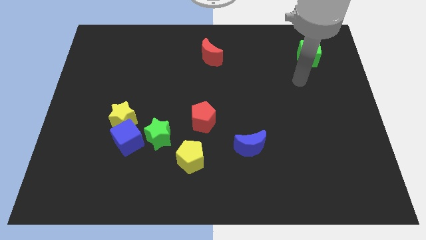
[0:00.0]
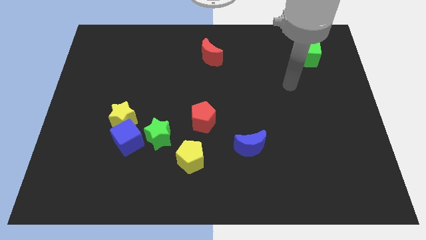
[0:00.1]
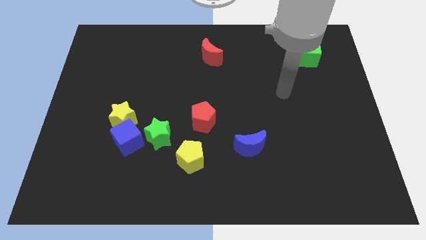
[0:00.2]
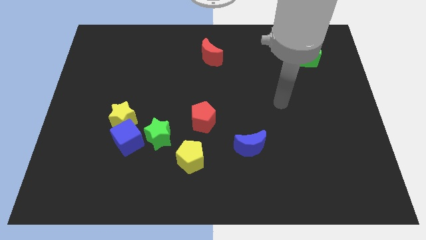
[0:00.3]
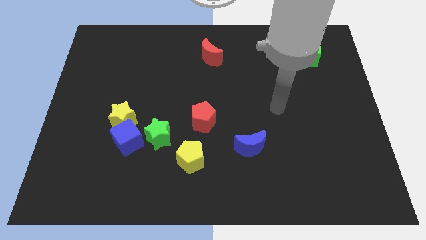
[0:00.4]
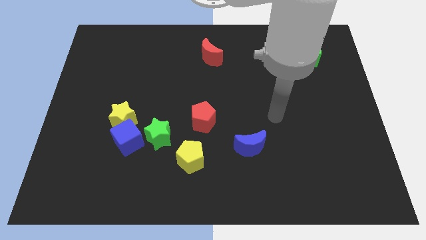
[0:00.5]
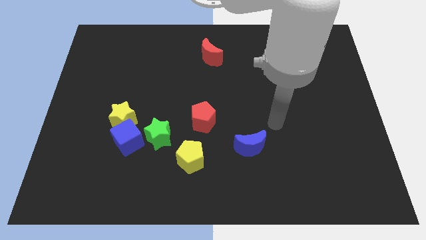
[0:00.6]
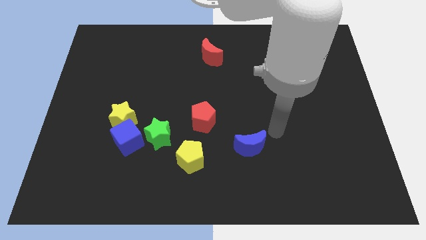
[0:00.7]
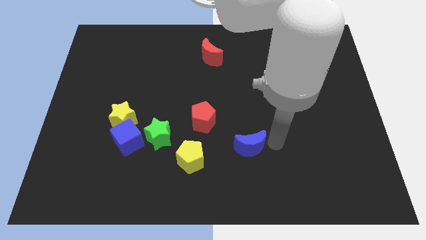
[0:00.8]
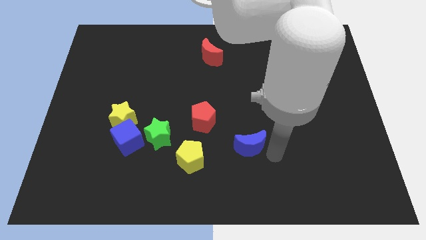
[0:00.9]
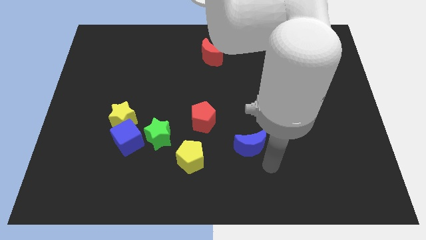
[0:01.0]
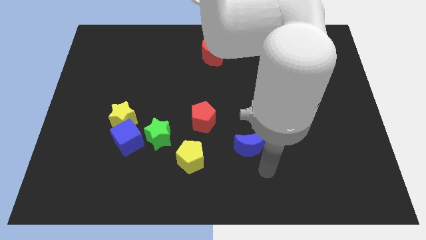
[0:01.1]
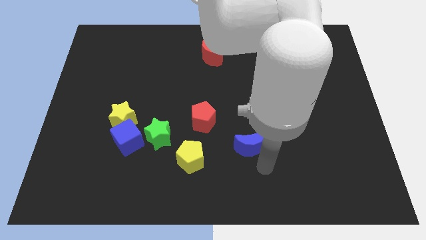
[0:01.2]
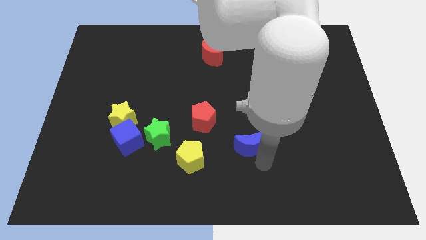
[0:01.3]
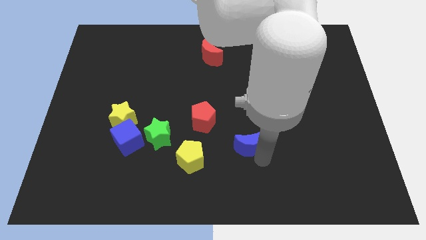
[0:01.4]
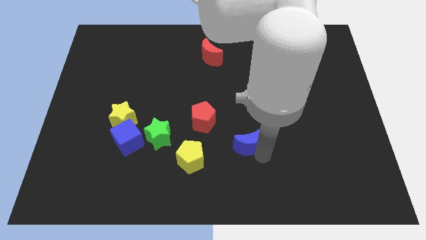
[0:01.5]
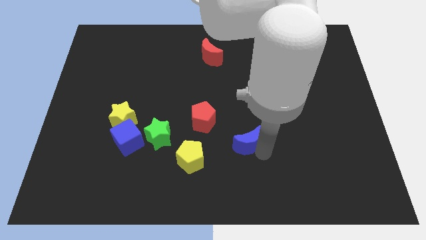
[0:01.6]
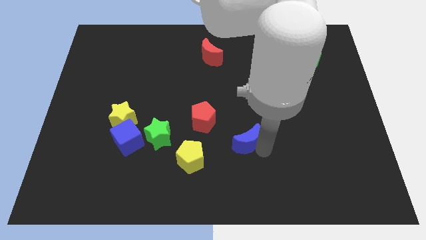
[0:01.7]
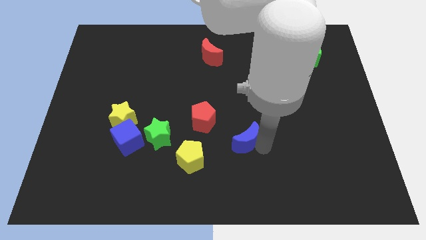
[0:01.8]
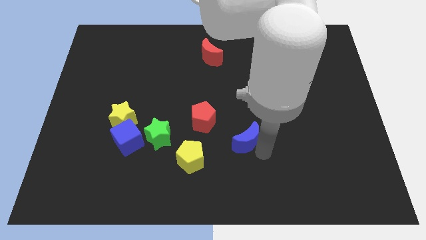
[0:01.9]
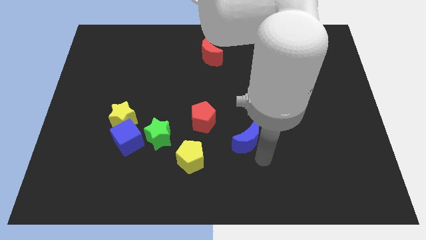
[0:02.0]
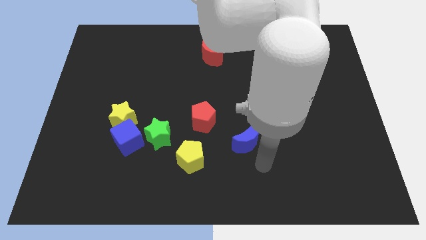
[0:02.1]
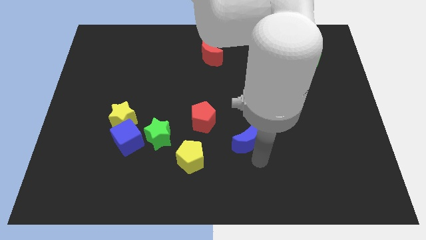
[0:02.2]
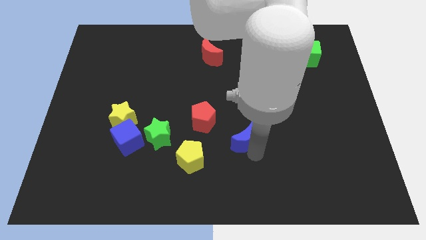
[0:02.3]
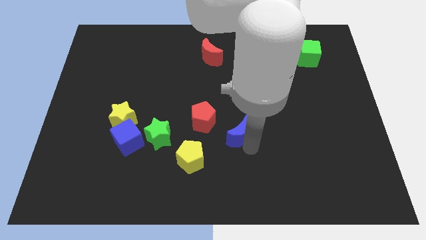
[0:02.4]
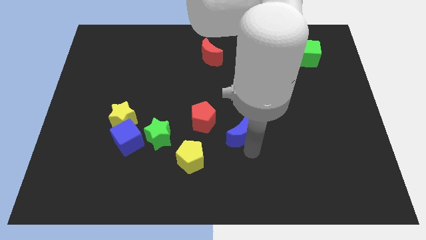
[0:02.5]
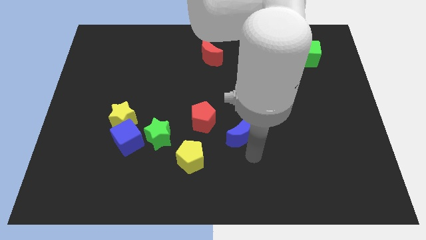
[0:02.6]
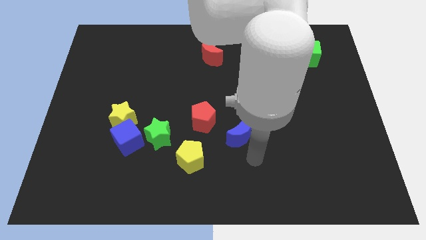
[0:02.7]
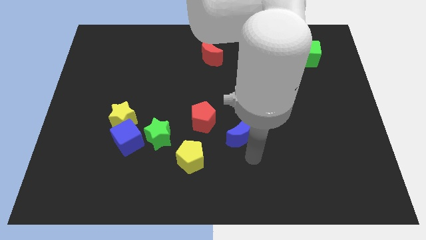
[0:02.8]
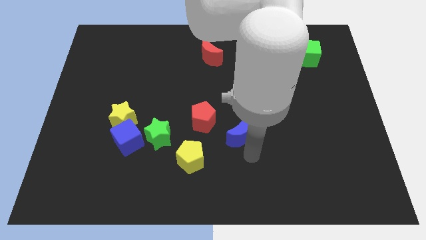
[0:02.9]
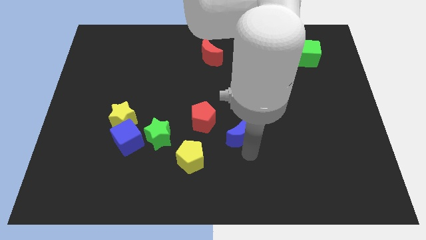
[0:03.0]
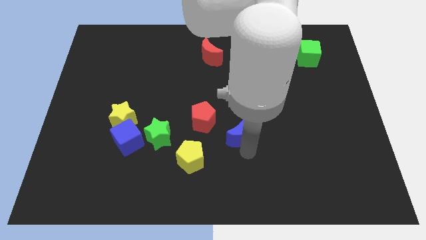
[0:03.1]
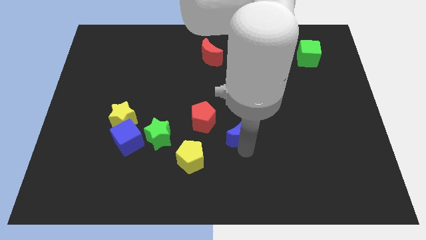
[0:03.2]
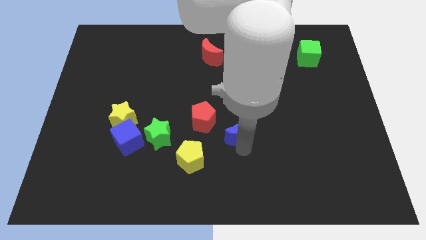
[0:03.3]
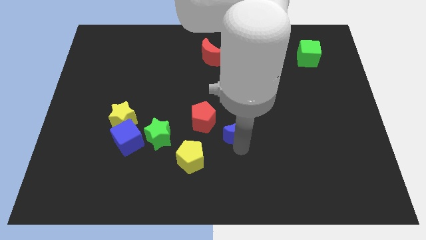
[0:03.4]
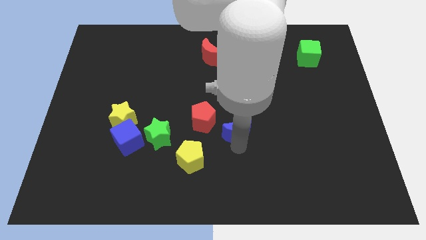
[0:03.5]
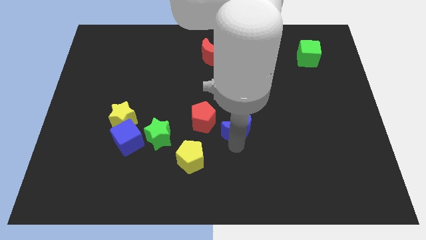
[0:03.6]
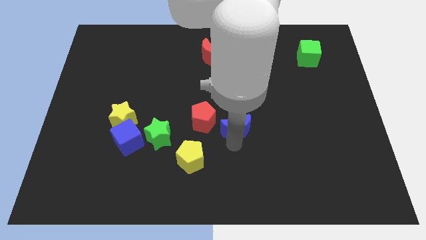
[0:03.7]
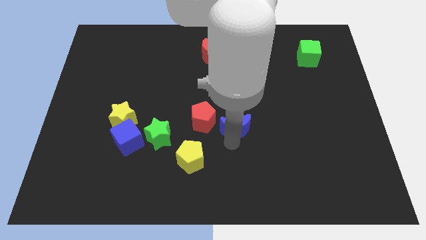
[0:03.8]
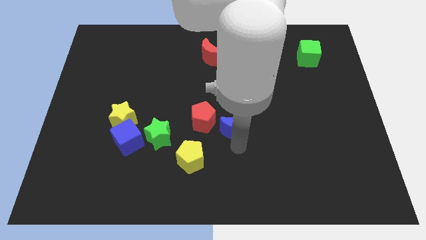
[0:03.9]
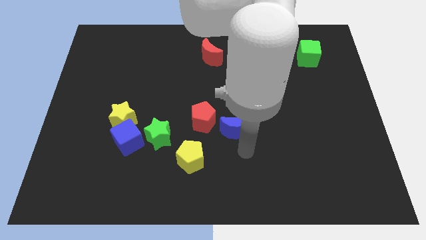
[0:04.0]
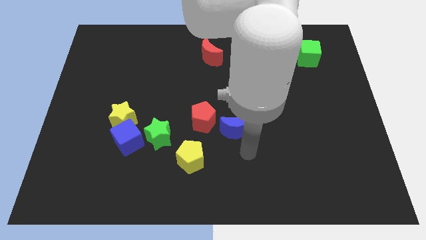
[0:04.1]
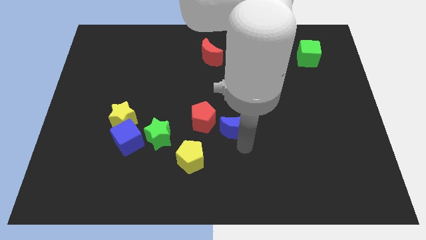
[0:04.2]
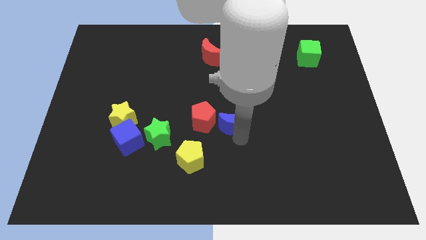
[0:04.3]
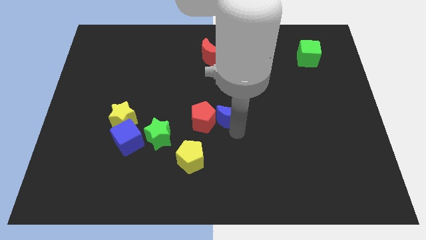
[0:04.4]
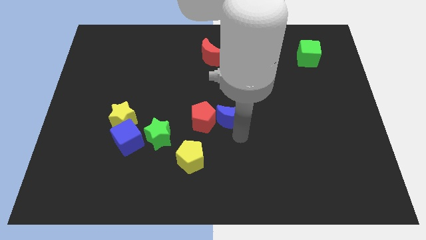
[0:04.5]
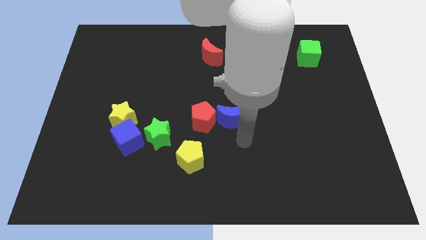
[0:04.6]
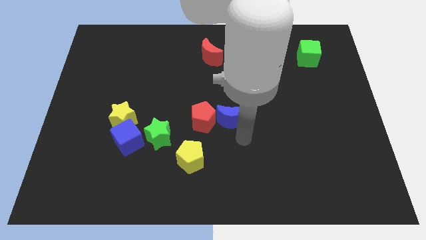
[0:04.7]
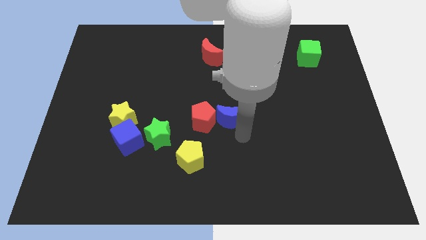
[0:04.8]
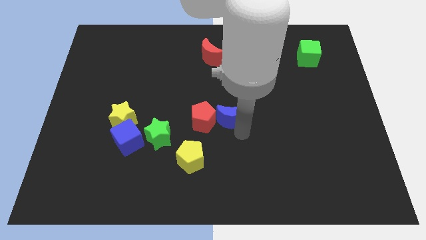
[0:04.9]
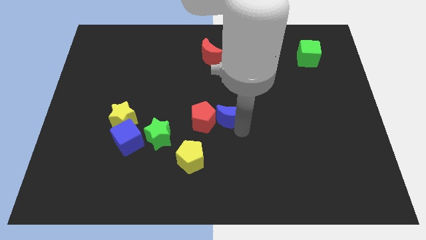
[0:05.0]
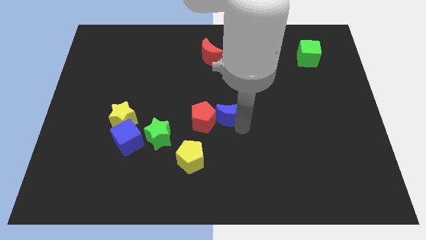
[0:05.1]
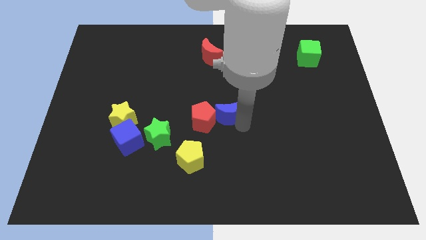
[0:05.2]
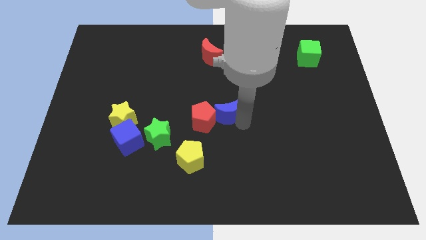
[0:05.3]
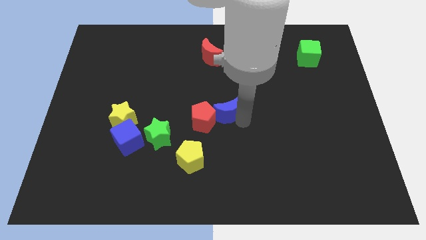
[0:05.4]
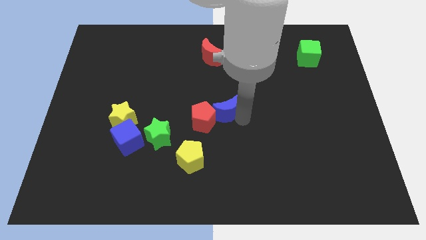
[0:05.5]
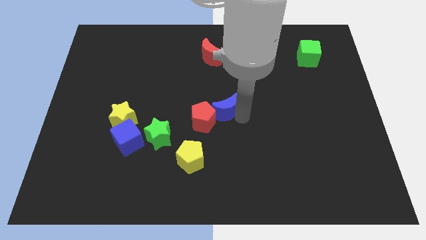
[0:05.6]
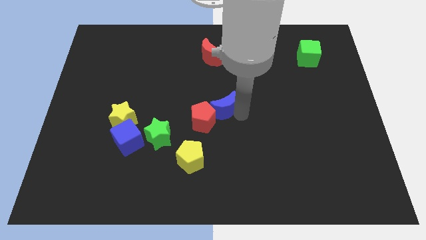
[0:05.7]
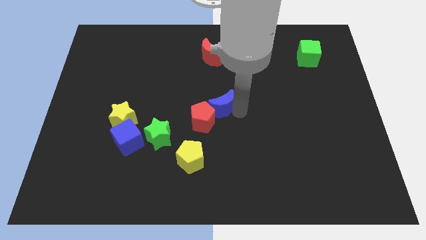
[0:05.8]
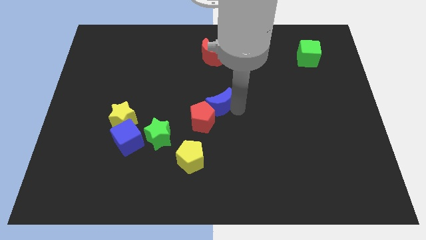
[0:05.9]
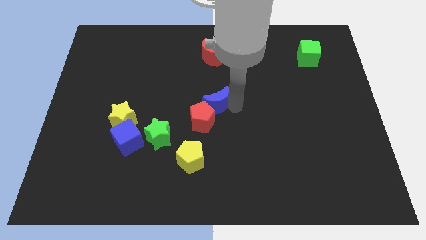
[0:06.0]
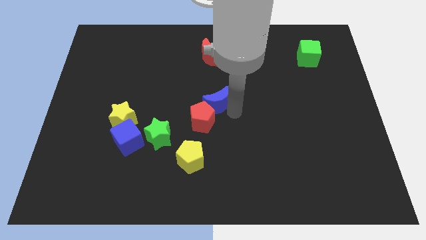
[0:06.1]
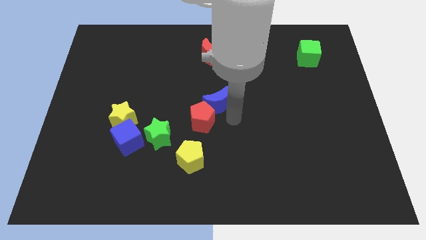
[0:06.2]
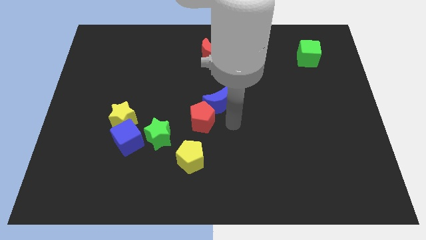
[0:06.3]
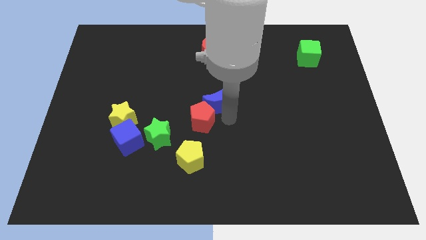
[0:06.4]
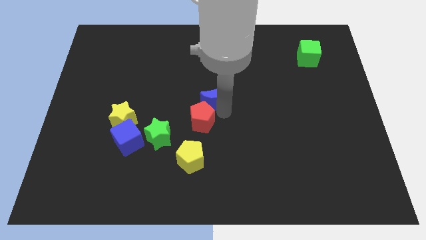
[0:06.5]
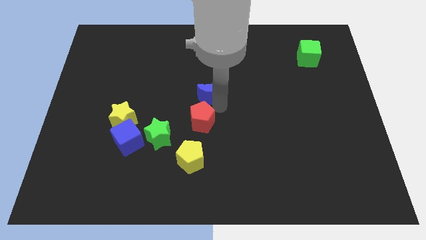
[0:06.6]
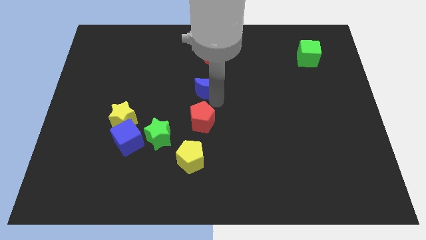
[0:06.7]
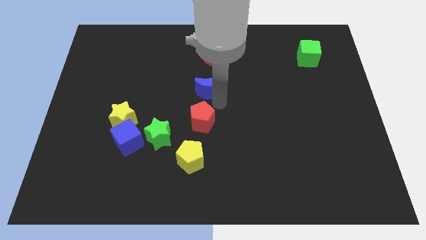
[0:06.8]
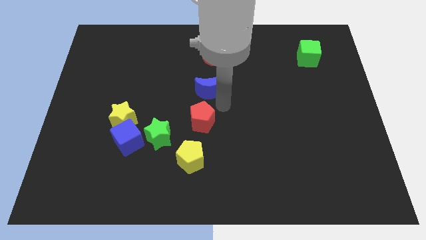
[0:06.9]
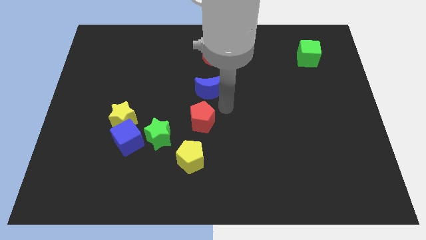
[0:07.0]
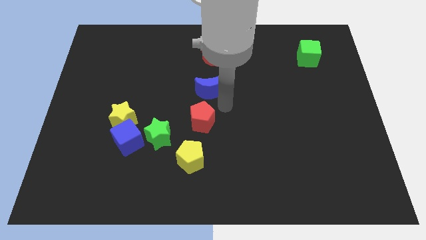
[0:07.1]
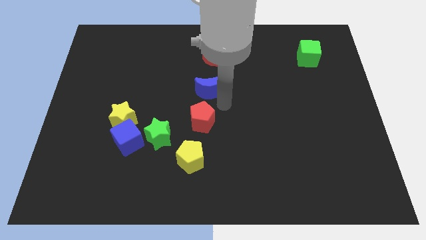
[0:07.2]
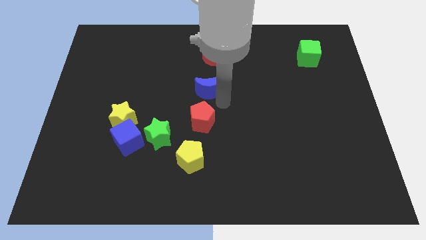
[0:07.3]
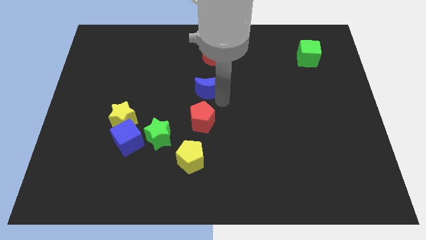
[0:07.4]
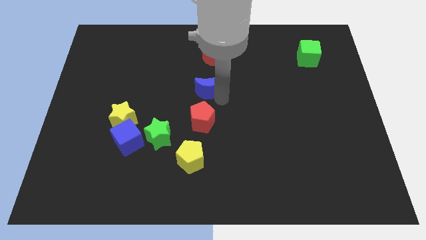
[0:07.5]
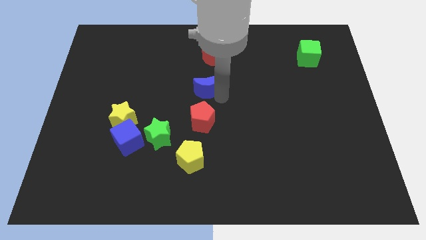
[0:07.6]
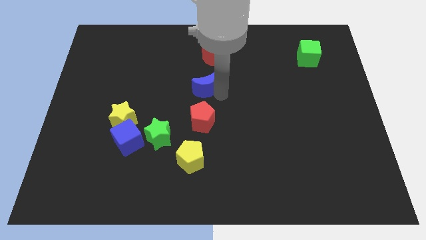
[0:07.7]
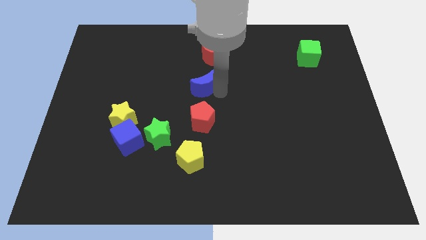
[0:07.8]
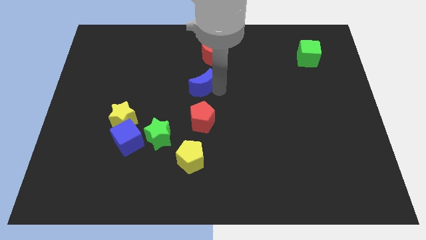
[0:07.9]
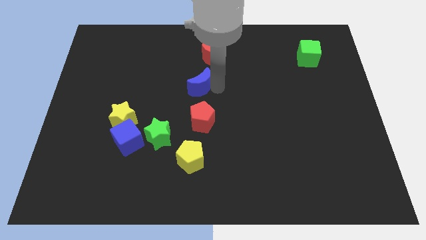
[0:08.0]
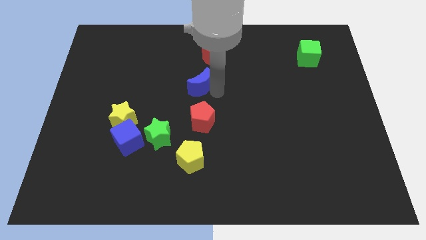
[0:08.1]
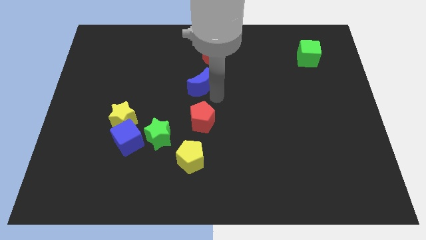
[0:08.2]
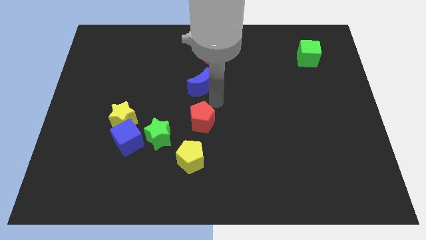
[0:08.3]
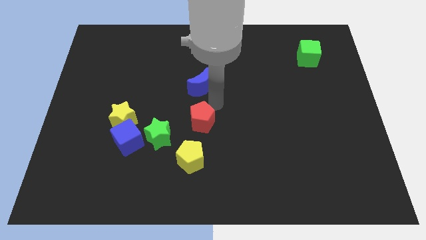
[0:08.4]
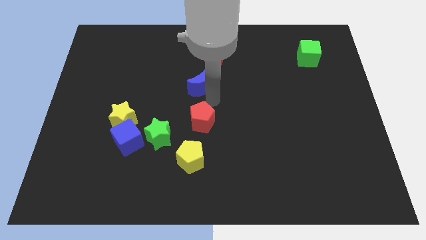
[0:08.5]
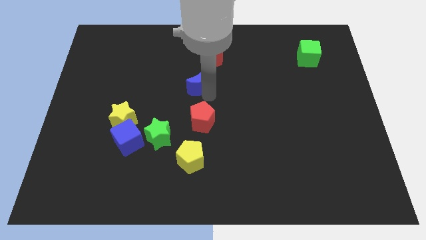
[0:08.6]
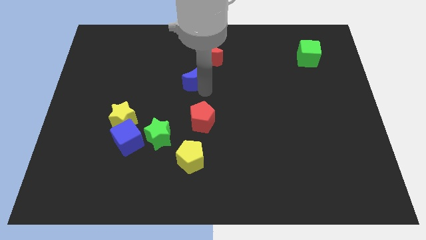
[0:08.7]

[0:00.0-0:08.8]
put the blue moon to the bottom left side of the red moon
